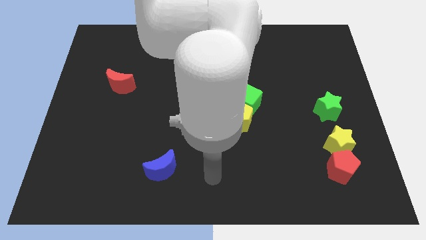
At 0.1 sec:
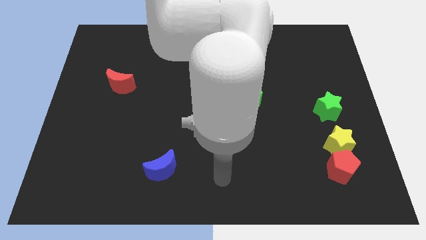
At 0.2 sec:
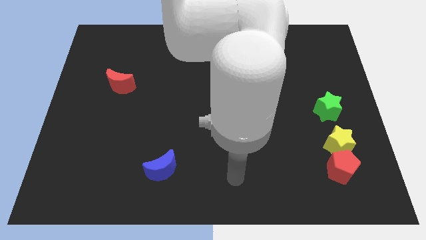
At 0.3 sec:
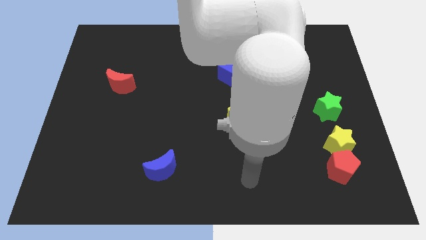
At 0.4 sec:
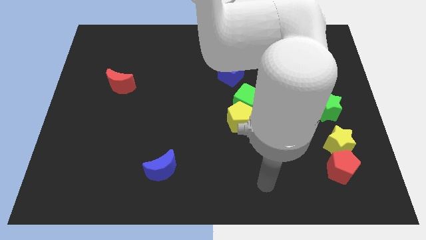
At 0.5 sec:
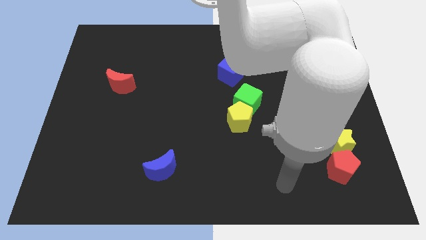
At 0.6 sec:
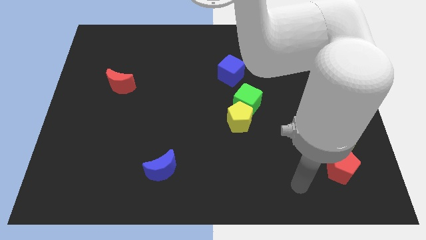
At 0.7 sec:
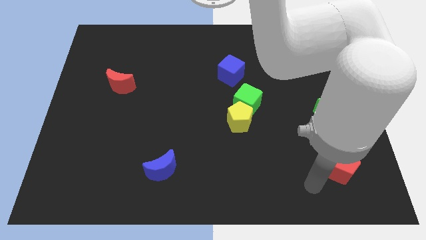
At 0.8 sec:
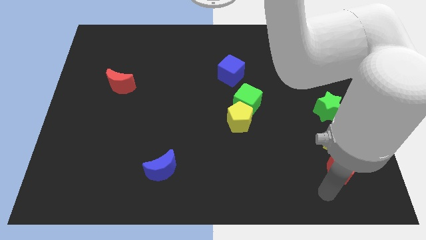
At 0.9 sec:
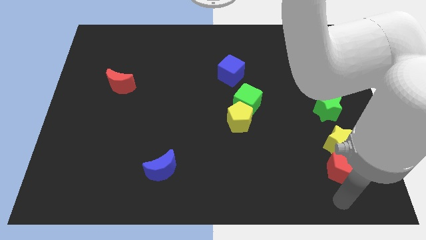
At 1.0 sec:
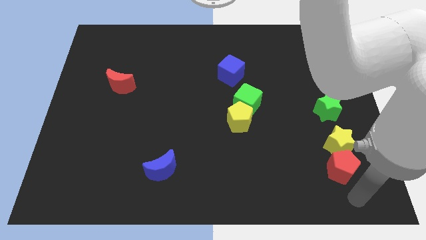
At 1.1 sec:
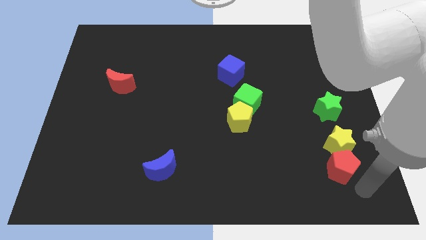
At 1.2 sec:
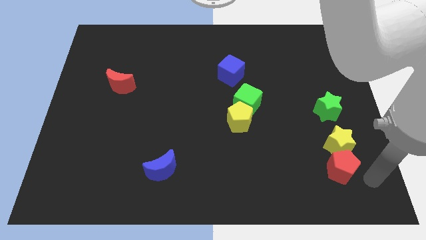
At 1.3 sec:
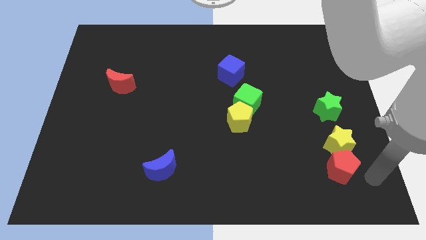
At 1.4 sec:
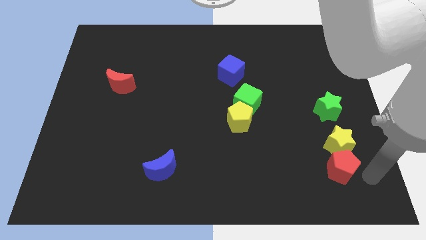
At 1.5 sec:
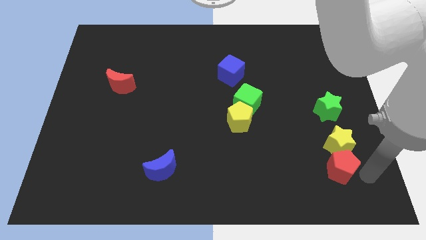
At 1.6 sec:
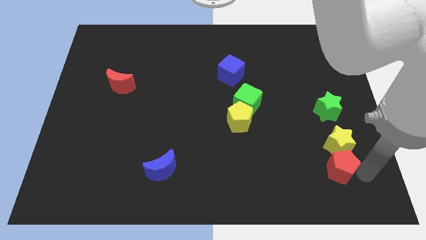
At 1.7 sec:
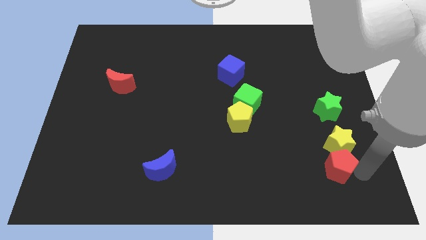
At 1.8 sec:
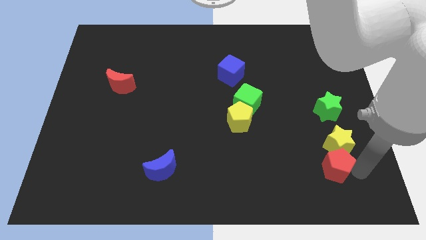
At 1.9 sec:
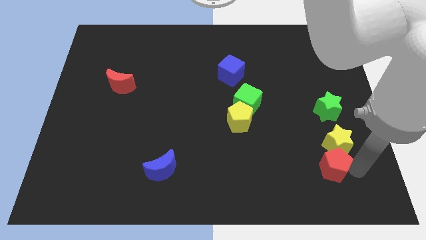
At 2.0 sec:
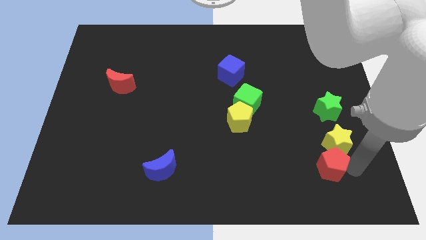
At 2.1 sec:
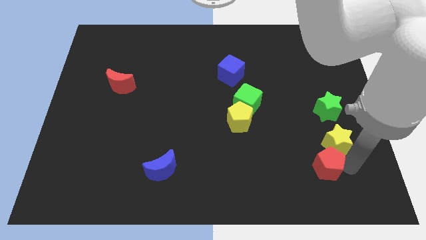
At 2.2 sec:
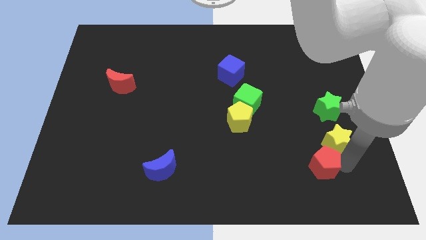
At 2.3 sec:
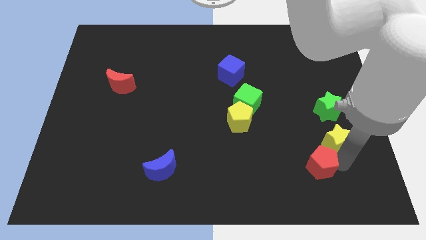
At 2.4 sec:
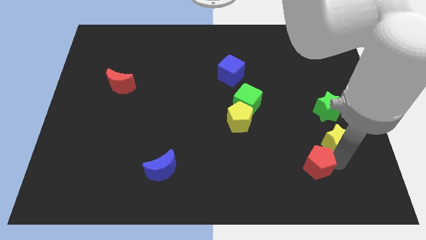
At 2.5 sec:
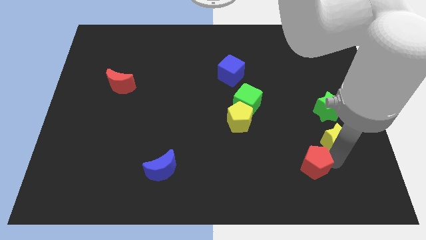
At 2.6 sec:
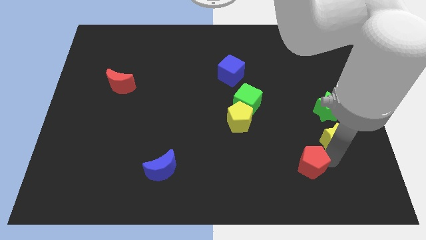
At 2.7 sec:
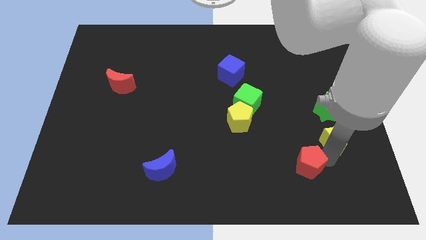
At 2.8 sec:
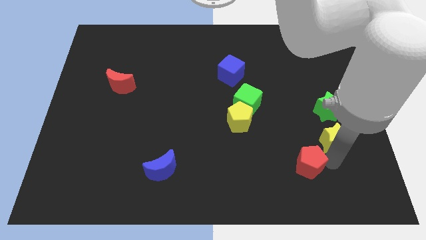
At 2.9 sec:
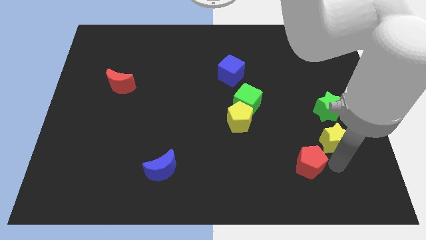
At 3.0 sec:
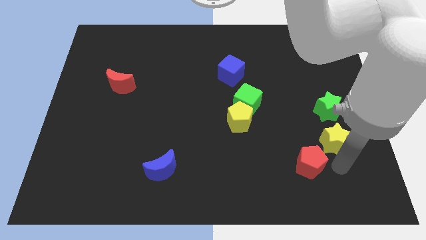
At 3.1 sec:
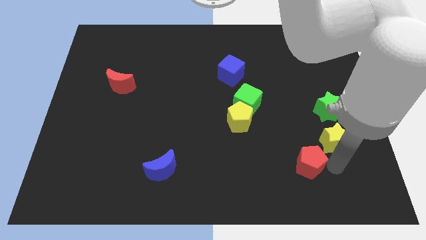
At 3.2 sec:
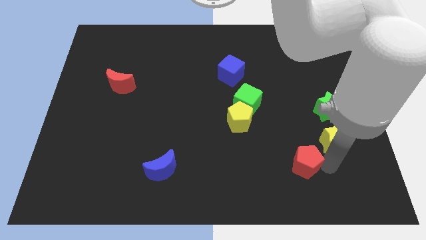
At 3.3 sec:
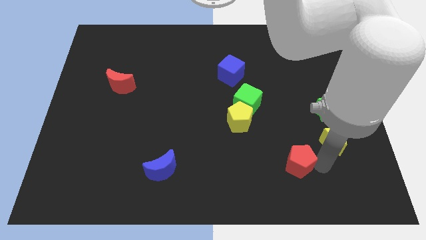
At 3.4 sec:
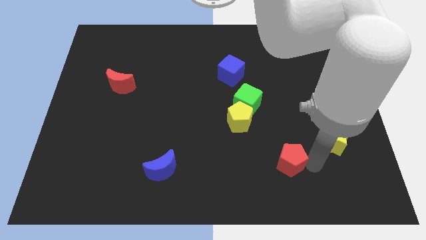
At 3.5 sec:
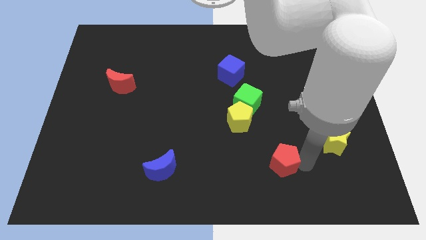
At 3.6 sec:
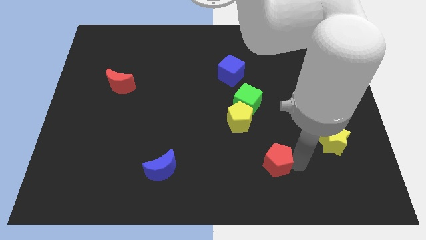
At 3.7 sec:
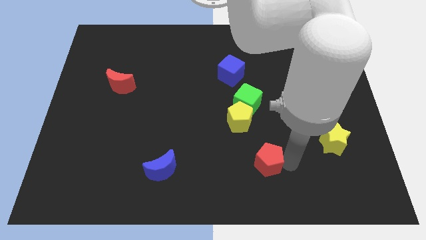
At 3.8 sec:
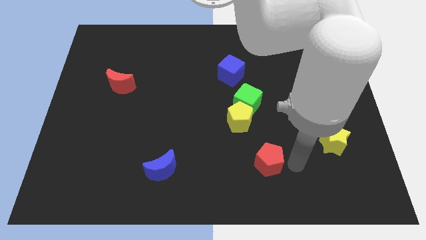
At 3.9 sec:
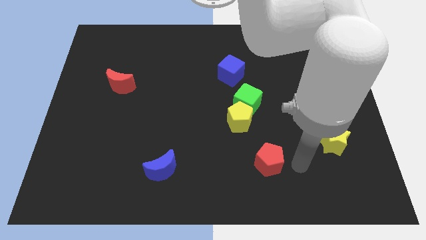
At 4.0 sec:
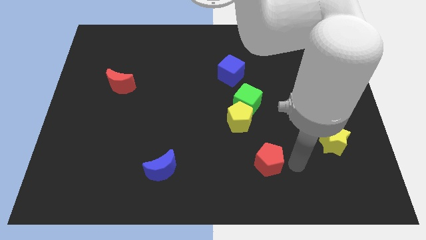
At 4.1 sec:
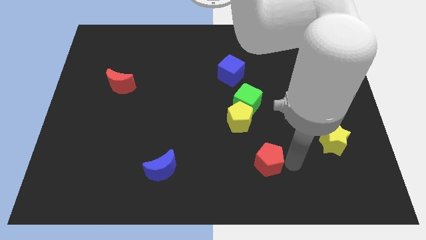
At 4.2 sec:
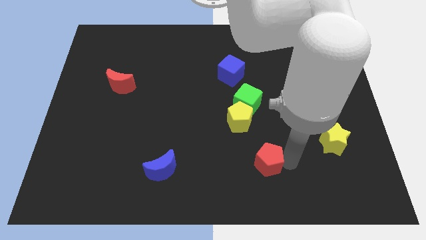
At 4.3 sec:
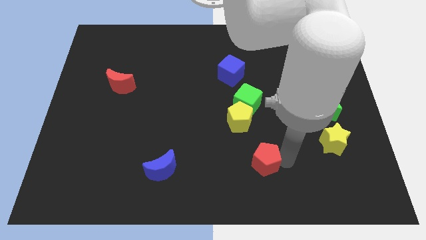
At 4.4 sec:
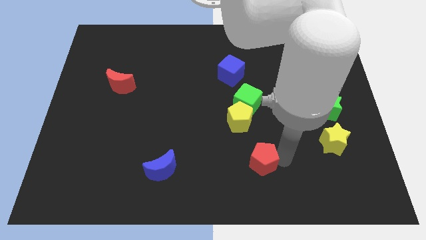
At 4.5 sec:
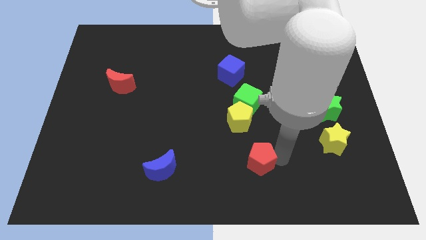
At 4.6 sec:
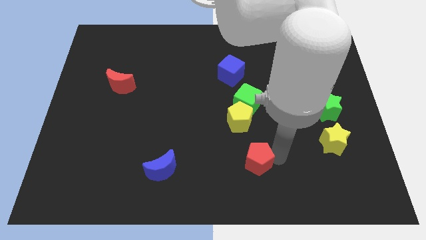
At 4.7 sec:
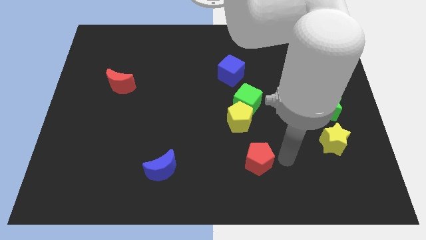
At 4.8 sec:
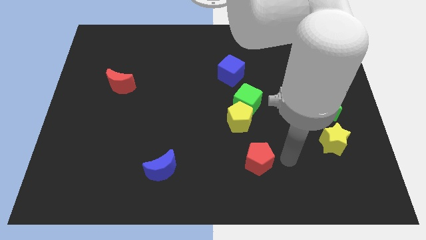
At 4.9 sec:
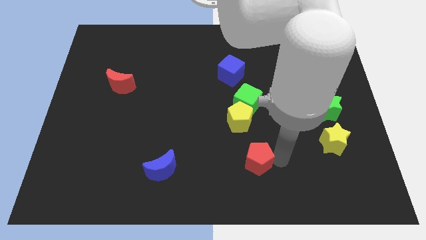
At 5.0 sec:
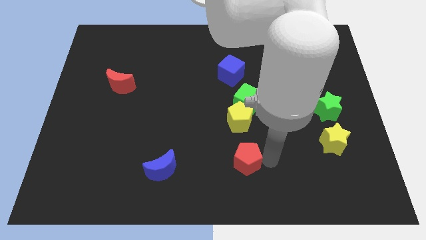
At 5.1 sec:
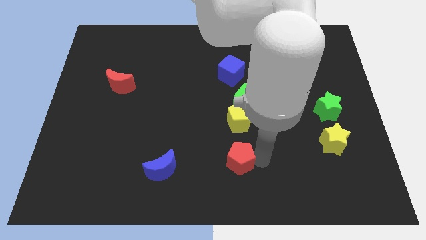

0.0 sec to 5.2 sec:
slide the red pentagon left

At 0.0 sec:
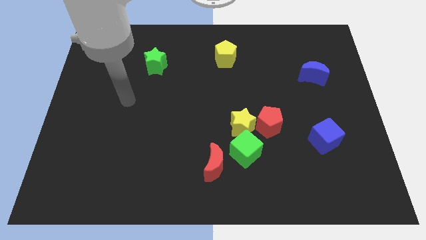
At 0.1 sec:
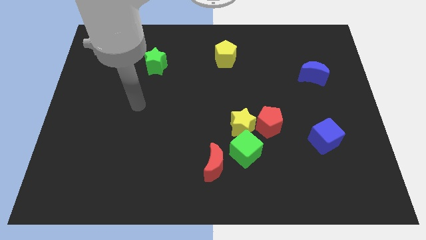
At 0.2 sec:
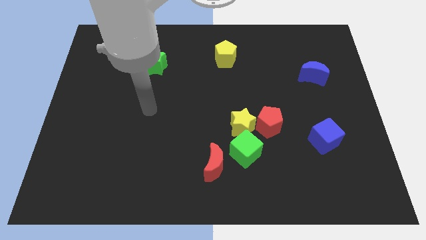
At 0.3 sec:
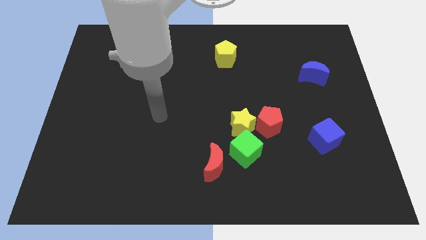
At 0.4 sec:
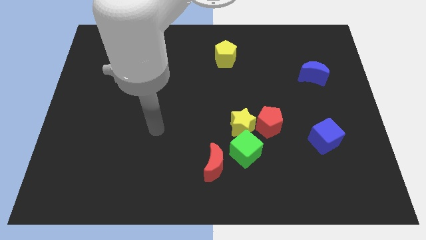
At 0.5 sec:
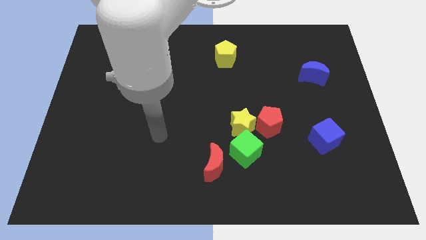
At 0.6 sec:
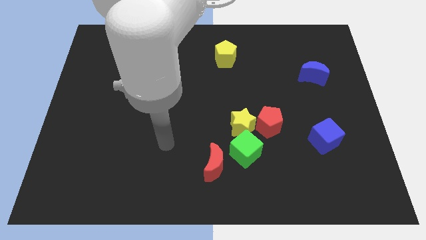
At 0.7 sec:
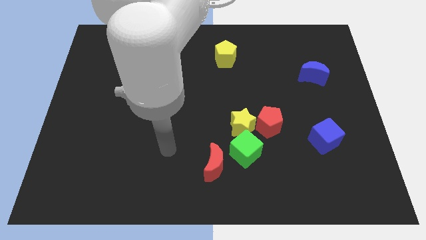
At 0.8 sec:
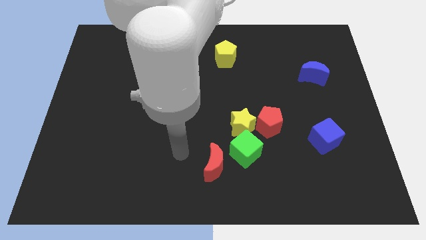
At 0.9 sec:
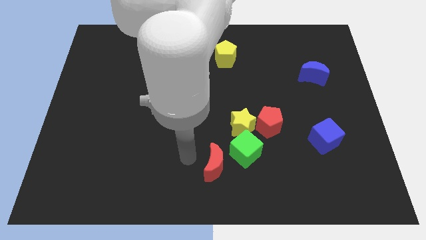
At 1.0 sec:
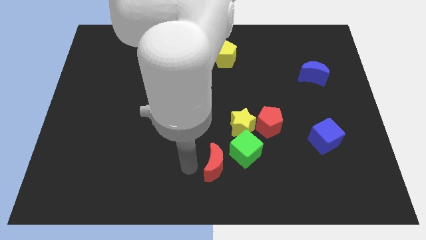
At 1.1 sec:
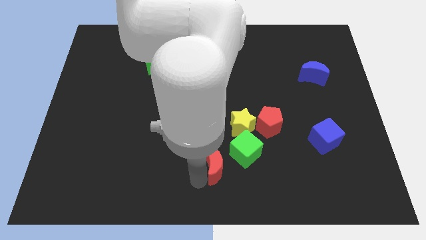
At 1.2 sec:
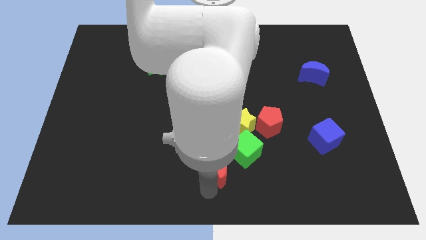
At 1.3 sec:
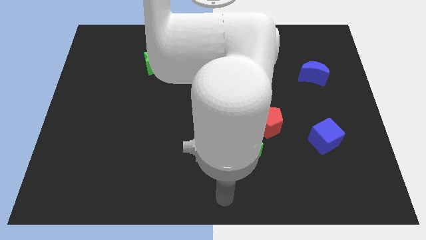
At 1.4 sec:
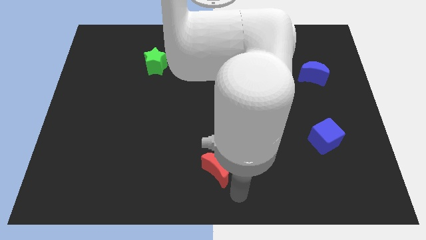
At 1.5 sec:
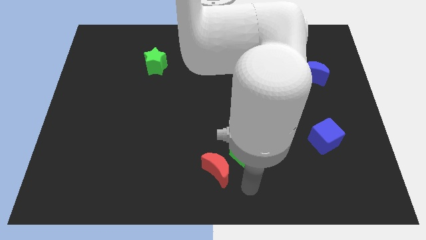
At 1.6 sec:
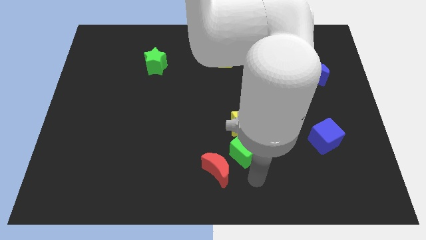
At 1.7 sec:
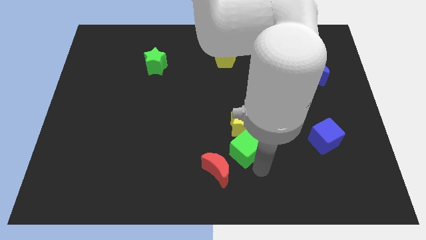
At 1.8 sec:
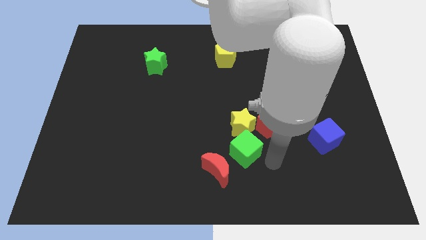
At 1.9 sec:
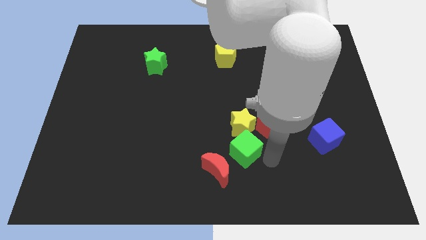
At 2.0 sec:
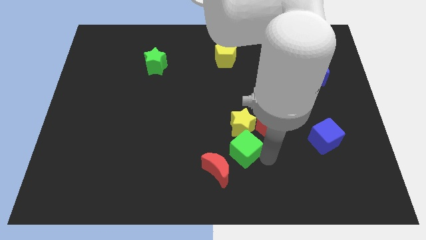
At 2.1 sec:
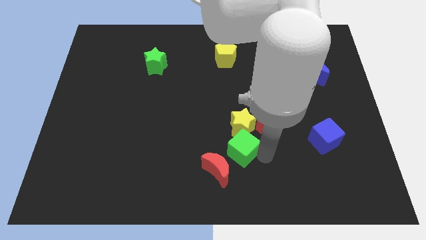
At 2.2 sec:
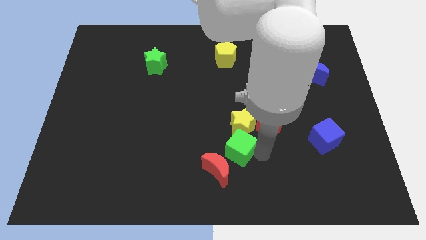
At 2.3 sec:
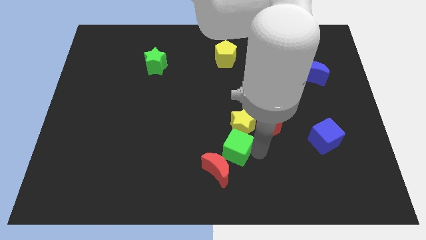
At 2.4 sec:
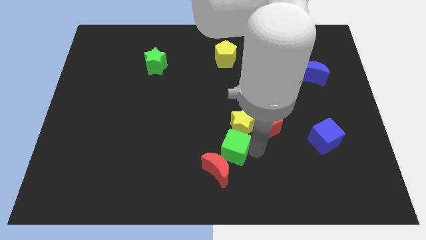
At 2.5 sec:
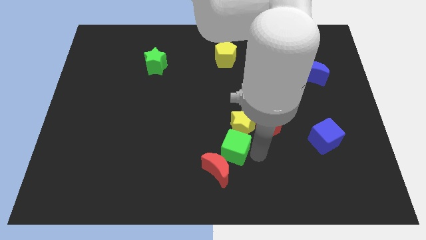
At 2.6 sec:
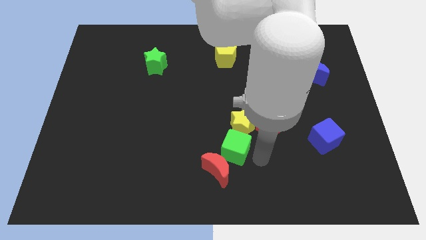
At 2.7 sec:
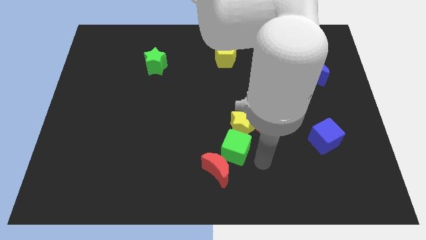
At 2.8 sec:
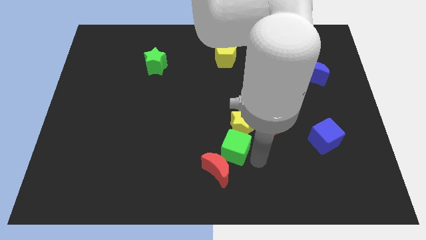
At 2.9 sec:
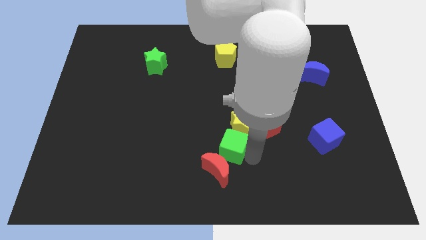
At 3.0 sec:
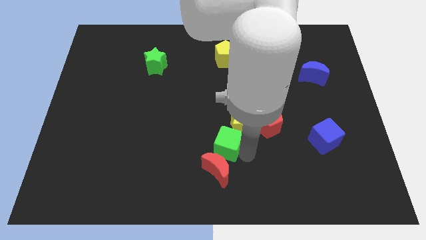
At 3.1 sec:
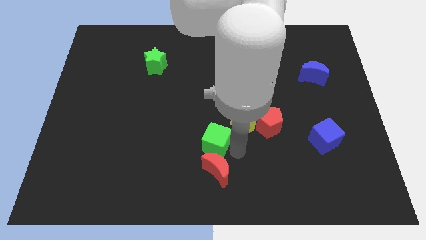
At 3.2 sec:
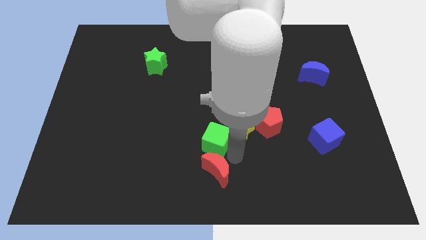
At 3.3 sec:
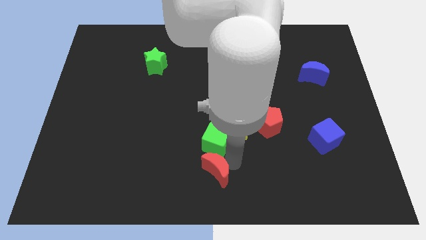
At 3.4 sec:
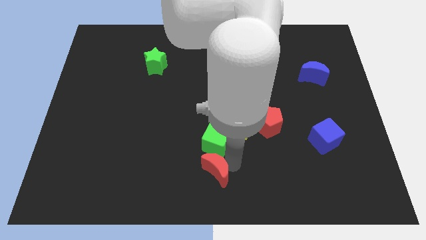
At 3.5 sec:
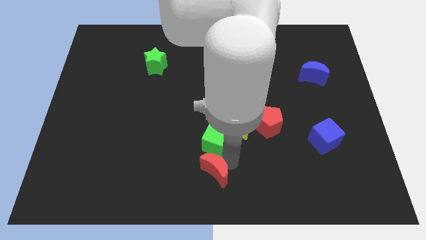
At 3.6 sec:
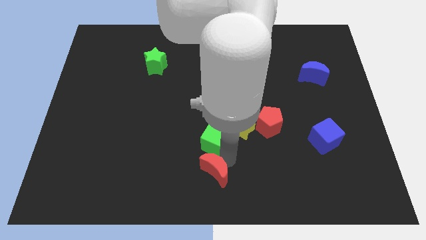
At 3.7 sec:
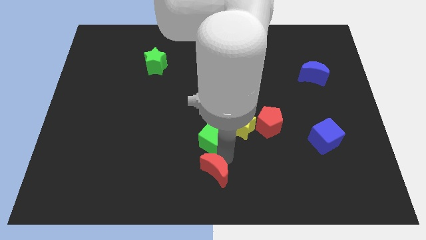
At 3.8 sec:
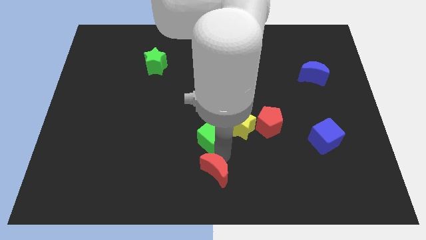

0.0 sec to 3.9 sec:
slide the green cube a little bit diagonally up and to the left
